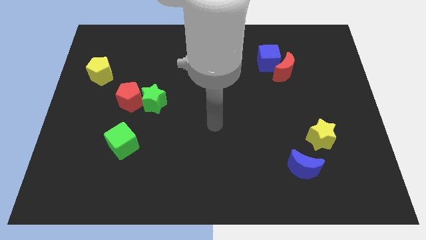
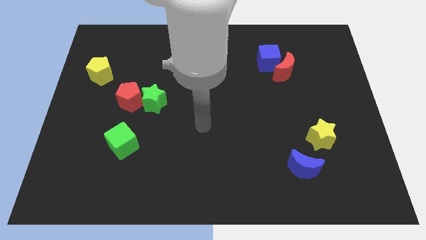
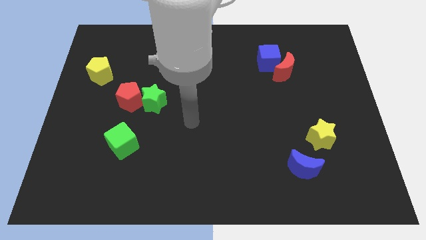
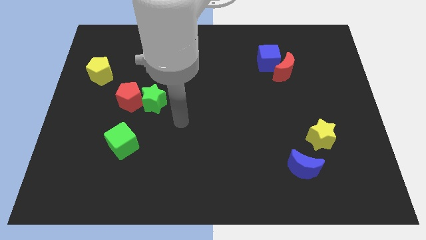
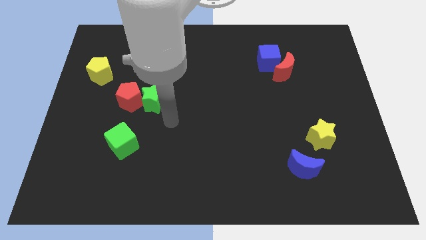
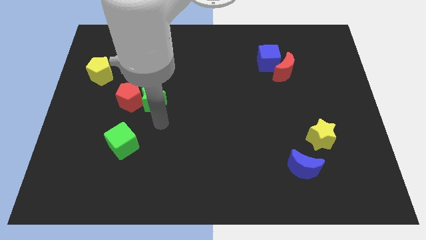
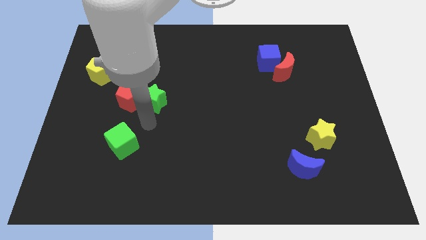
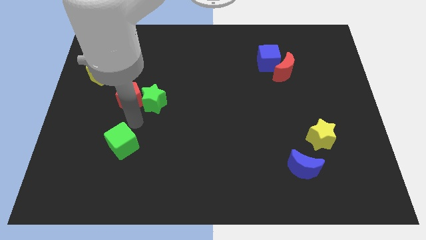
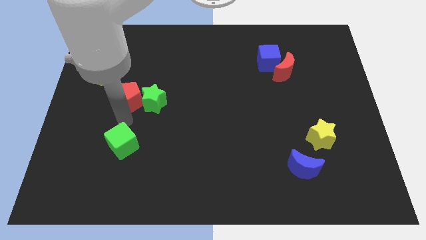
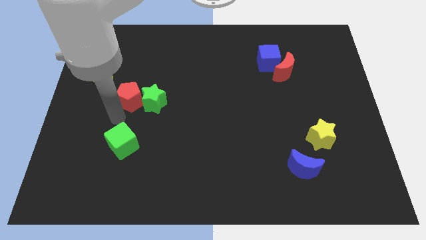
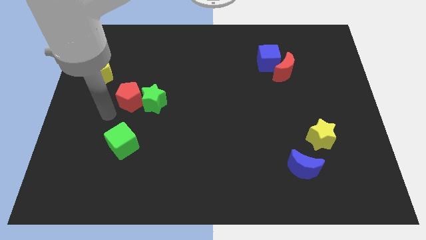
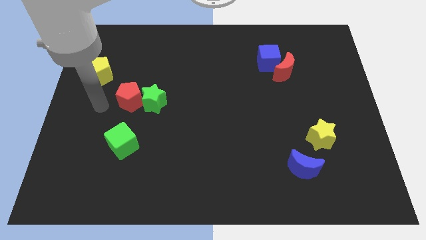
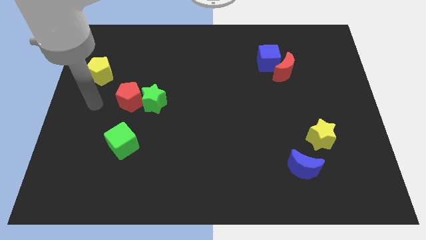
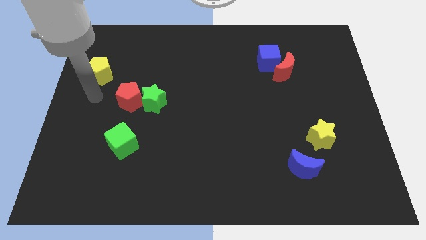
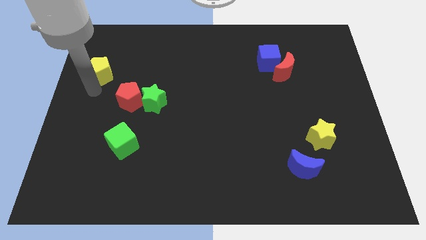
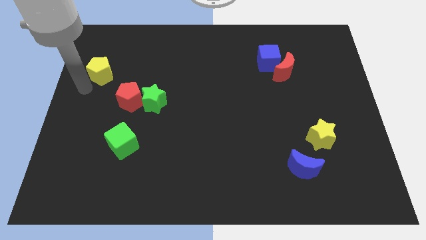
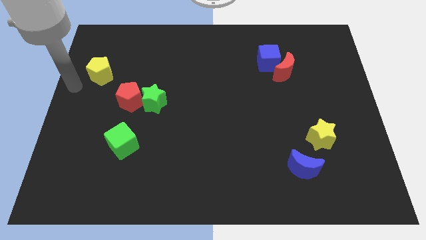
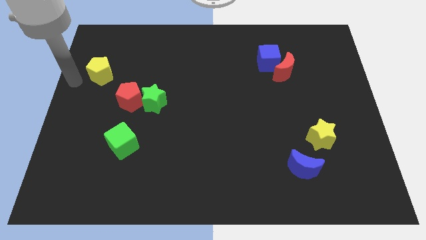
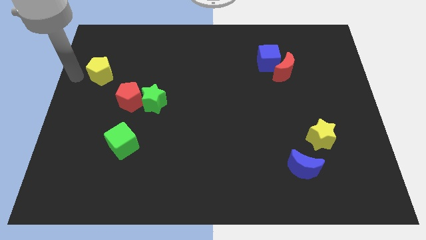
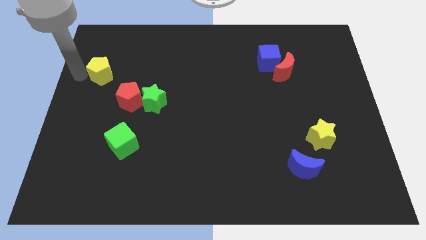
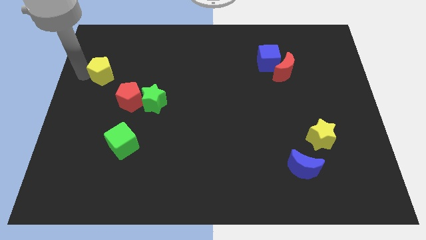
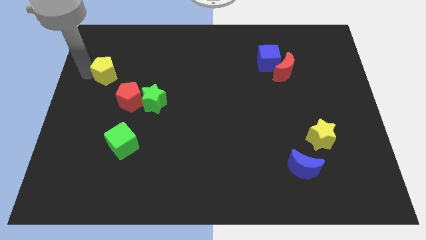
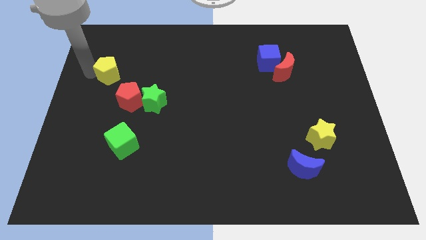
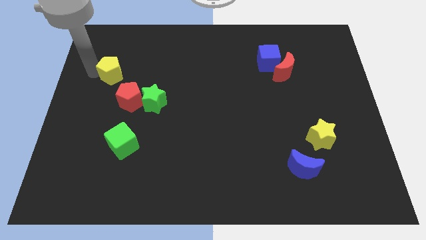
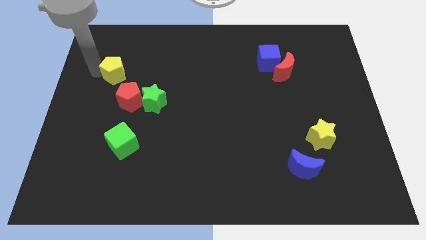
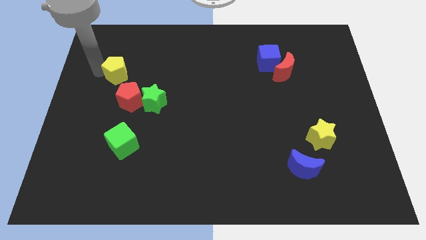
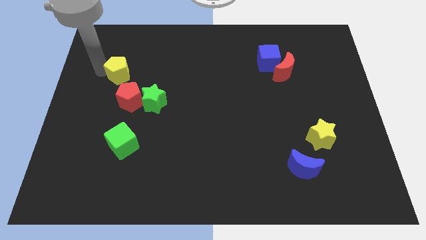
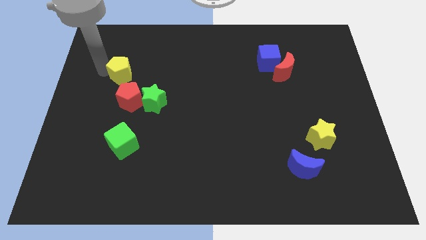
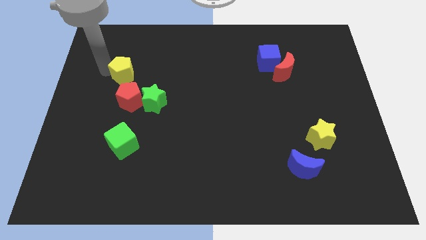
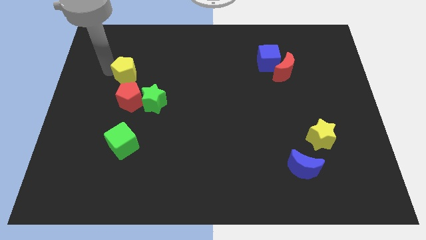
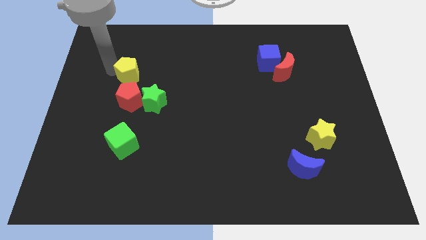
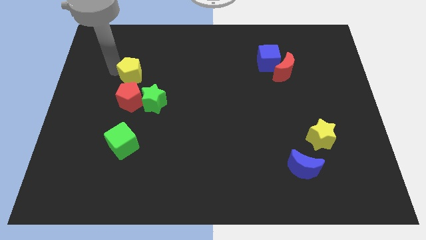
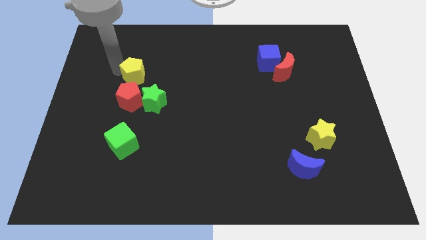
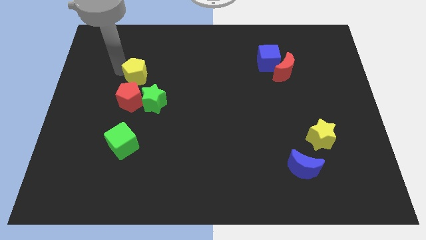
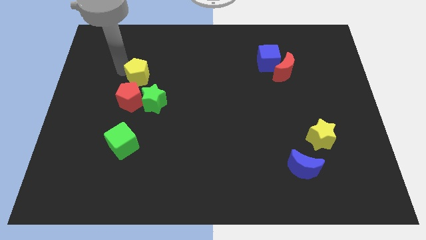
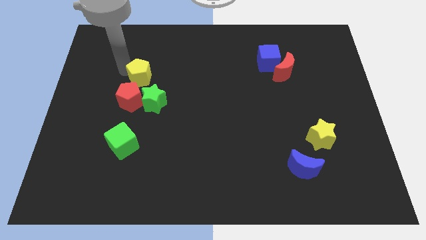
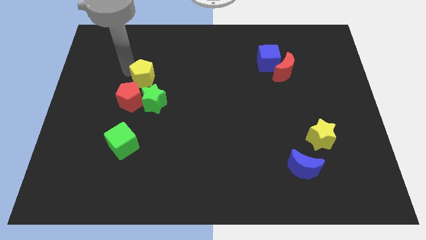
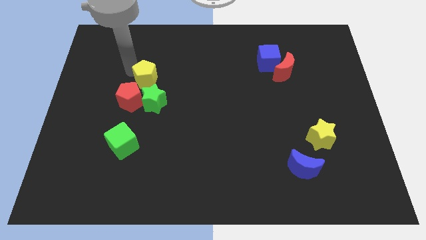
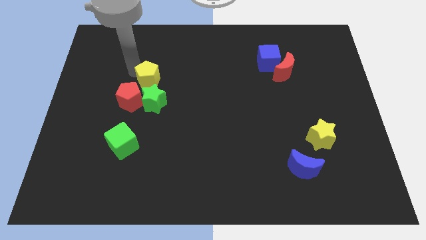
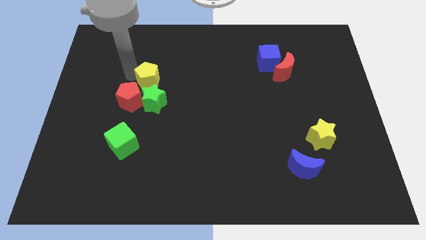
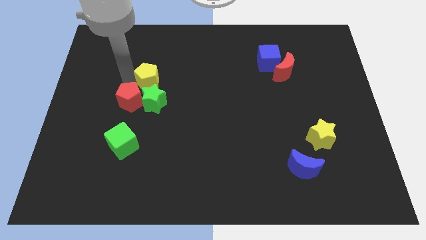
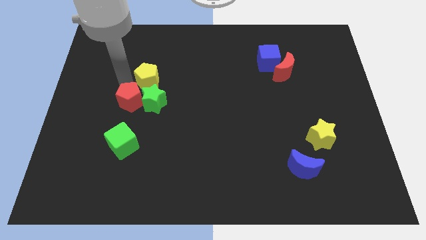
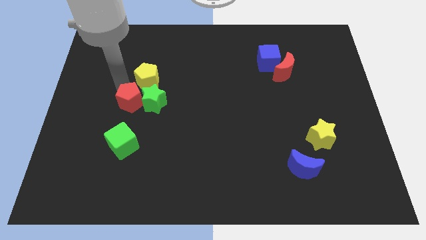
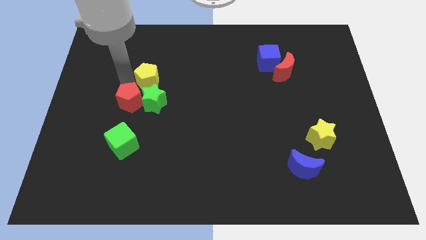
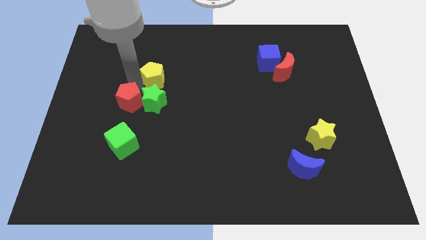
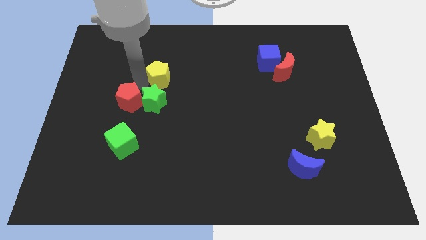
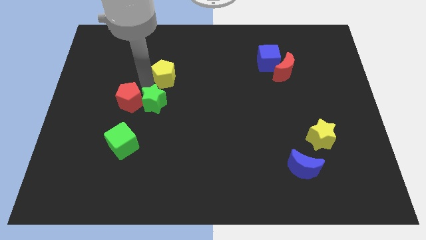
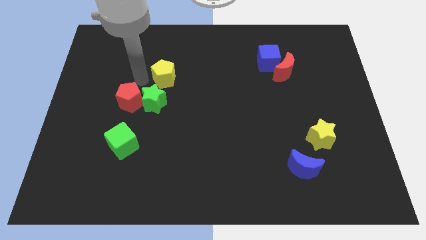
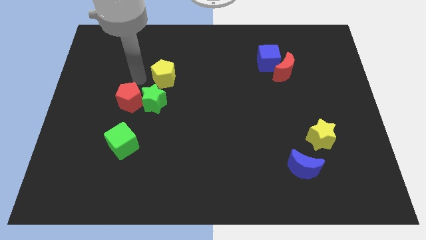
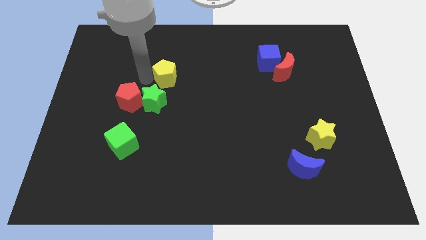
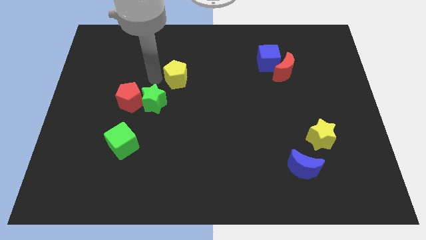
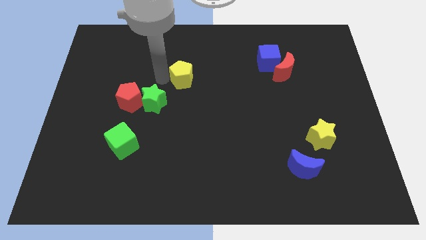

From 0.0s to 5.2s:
push the yellow pentagon right

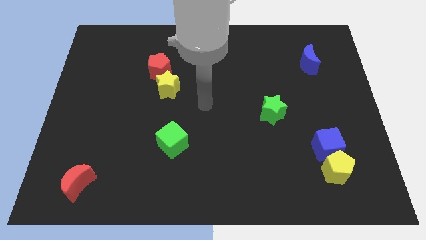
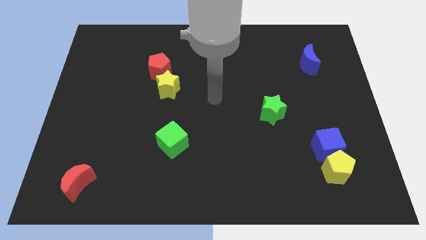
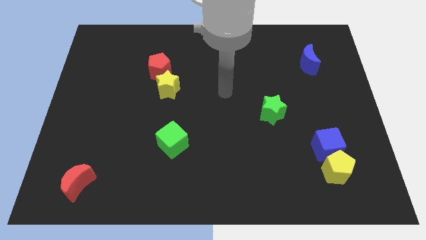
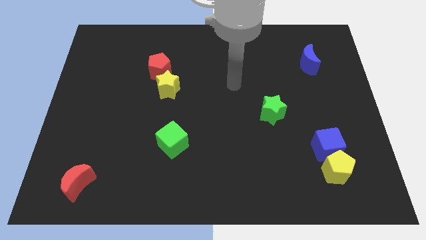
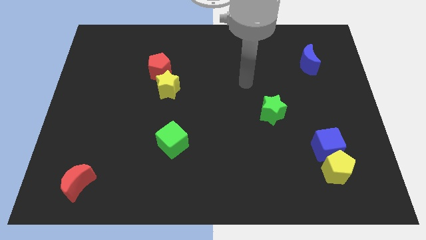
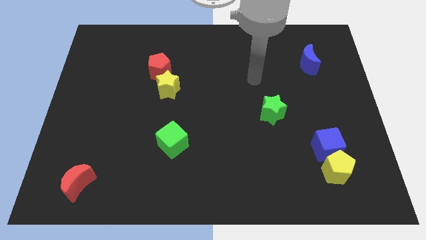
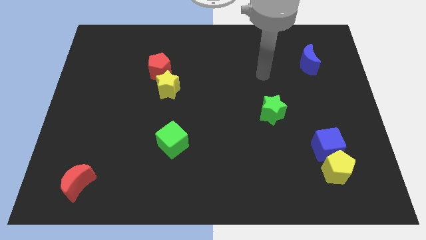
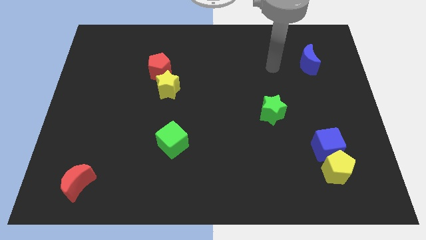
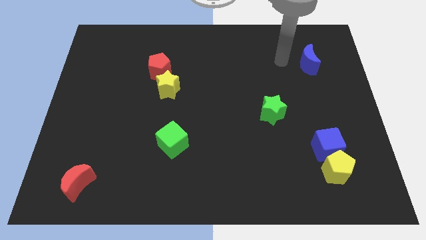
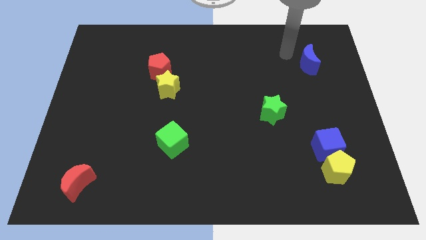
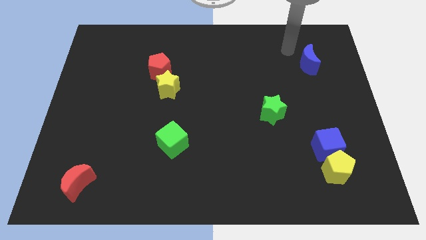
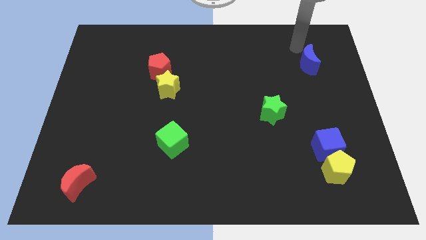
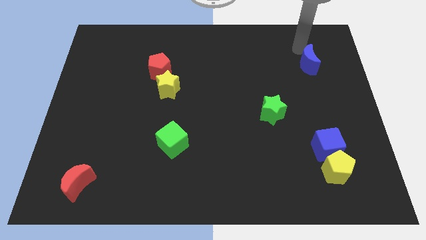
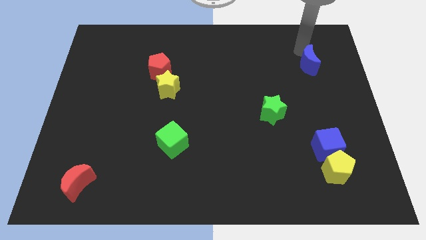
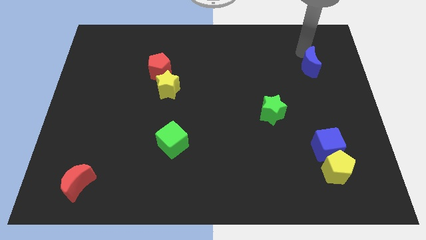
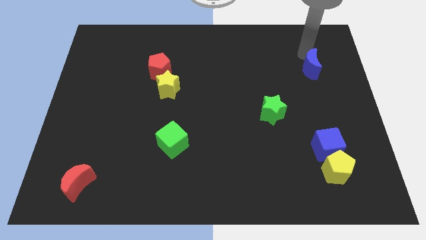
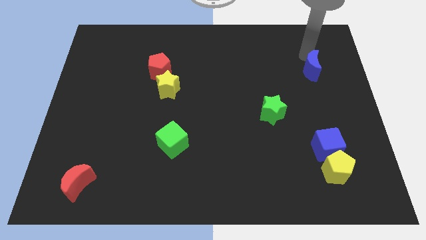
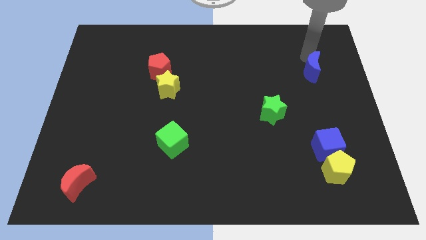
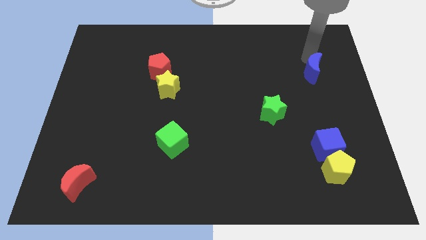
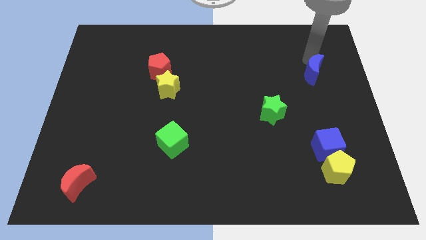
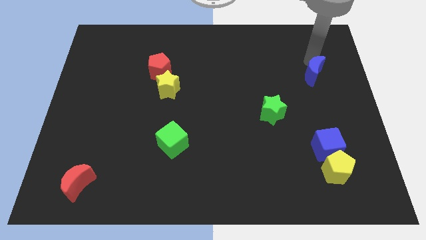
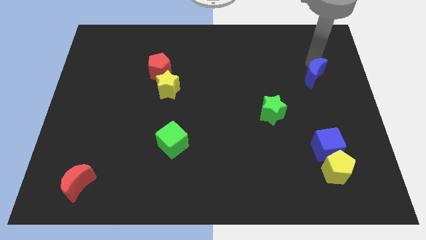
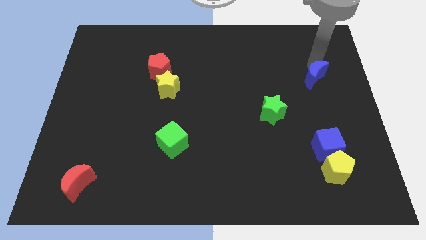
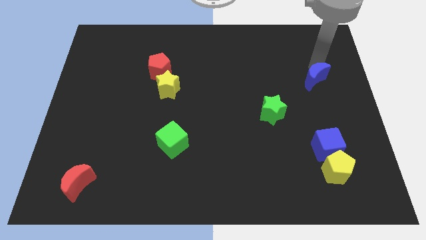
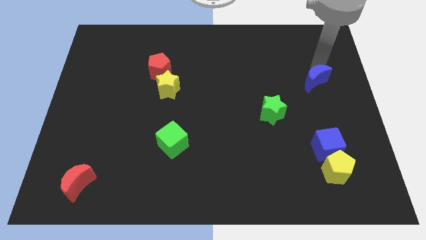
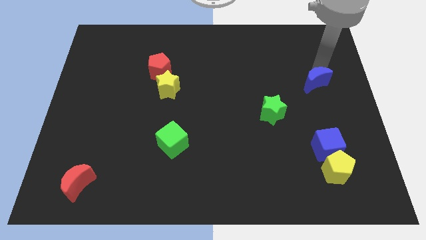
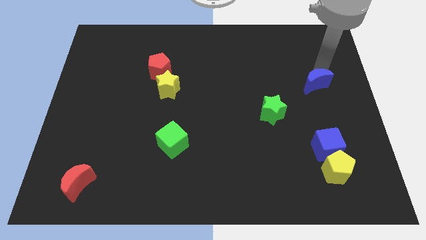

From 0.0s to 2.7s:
move the blue moon a bit down
